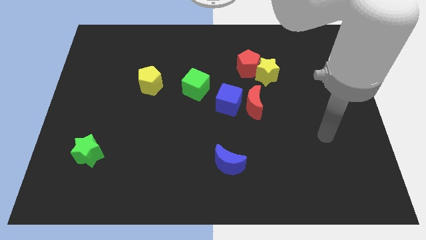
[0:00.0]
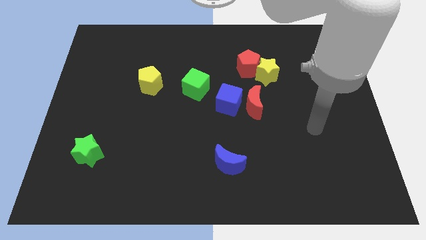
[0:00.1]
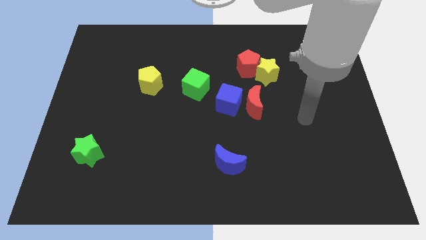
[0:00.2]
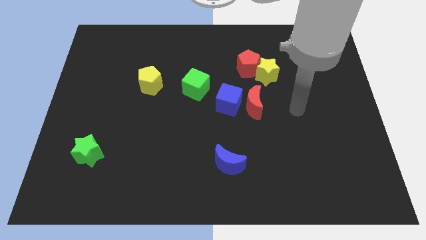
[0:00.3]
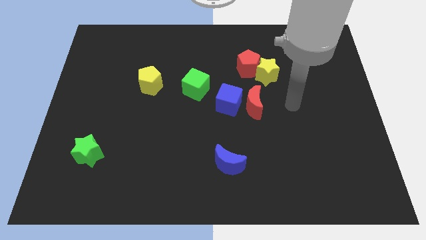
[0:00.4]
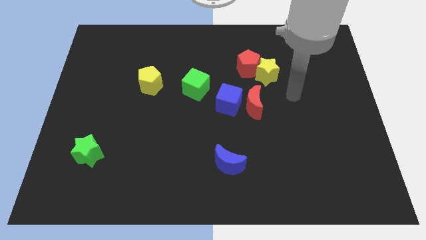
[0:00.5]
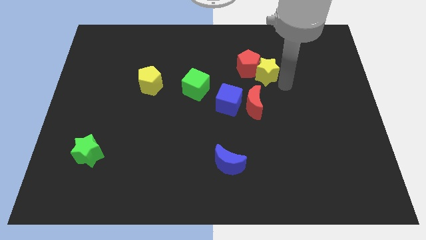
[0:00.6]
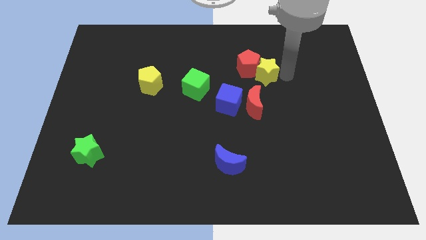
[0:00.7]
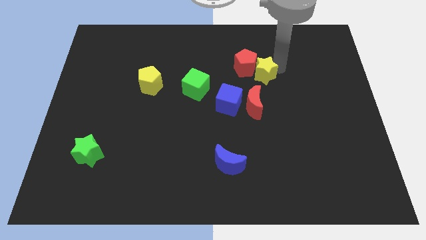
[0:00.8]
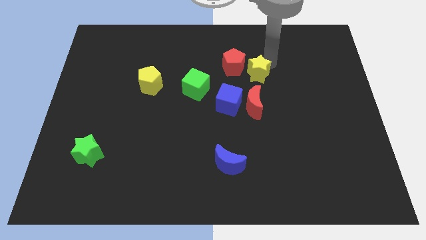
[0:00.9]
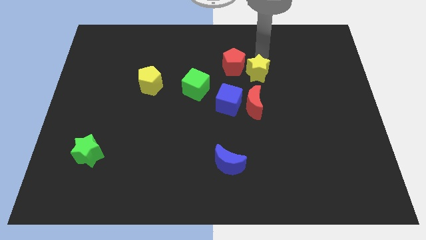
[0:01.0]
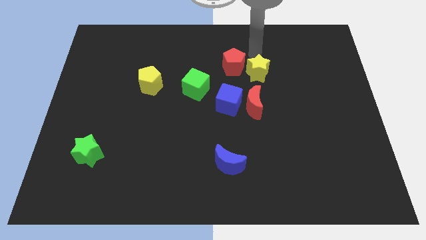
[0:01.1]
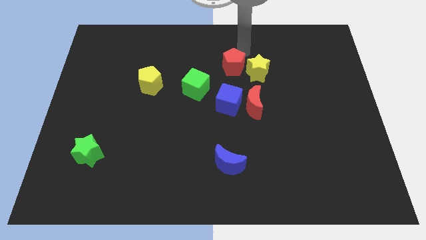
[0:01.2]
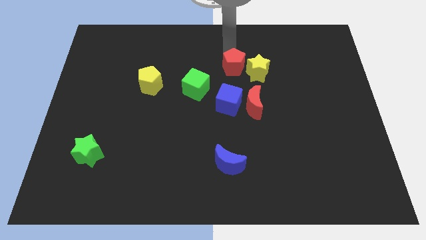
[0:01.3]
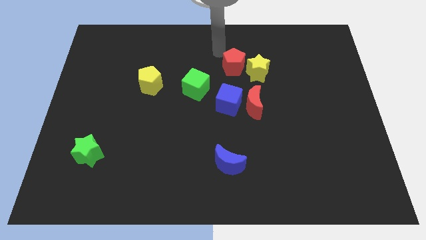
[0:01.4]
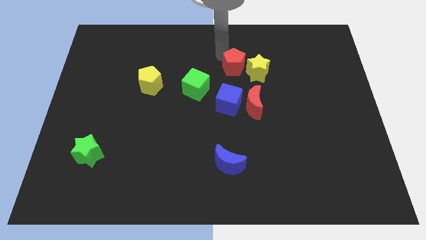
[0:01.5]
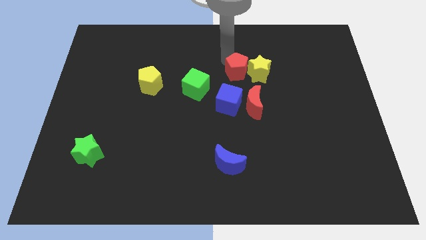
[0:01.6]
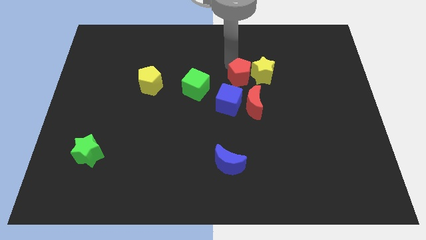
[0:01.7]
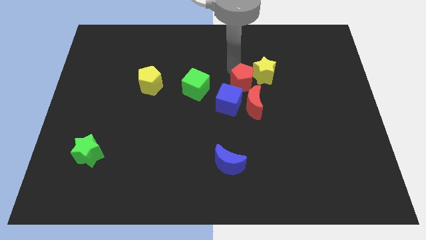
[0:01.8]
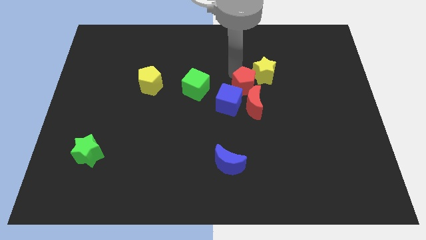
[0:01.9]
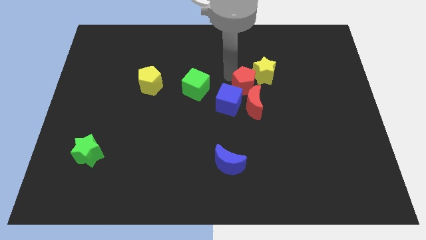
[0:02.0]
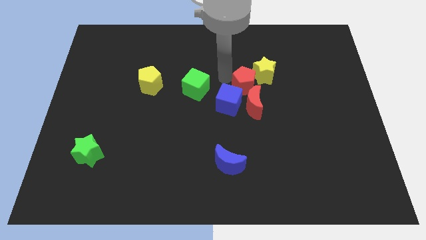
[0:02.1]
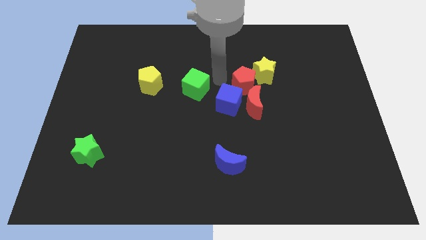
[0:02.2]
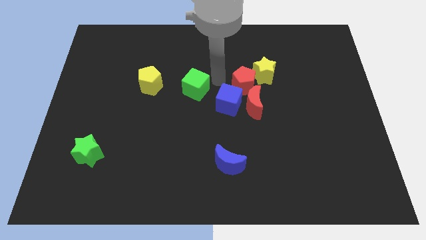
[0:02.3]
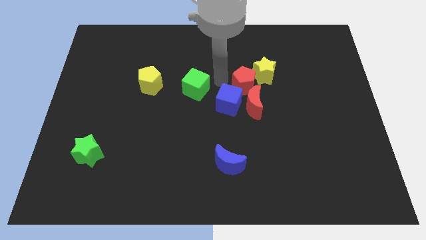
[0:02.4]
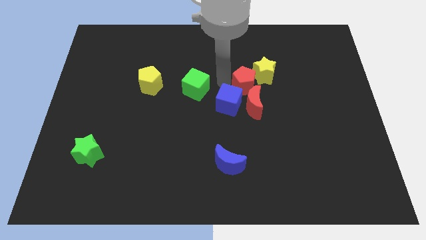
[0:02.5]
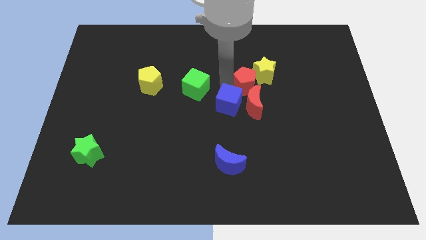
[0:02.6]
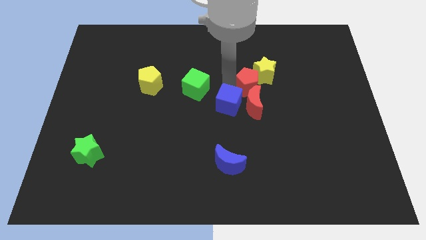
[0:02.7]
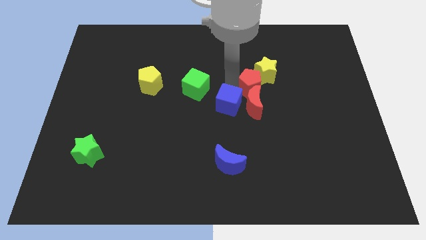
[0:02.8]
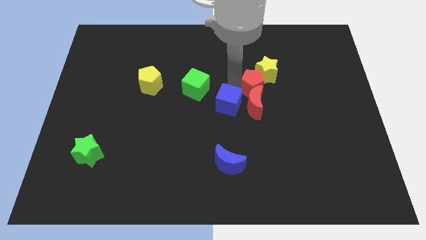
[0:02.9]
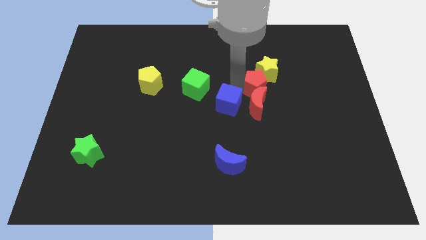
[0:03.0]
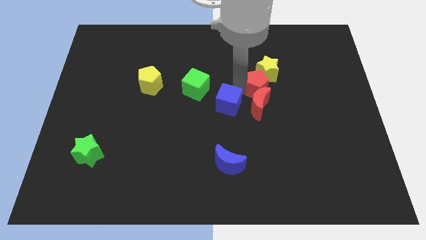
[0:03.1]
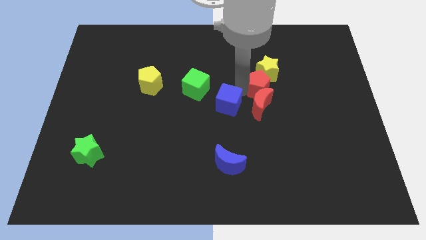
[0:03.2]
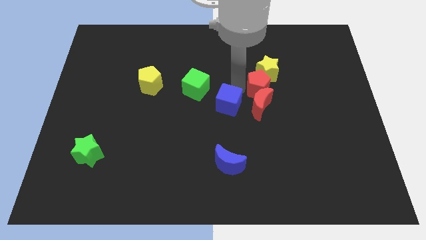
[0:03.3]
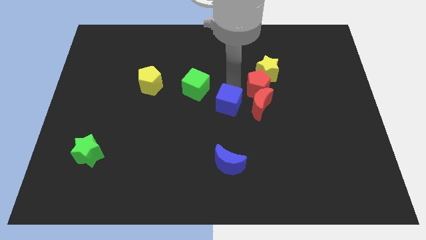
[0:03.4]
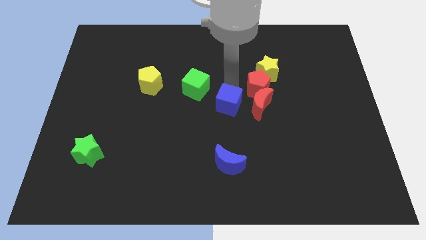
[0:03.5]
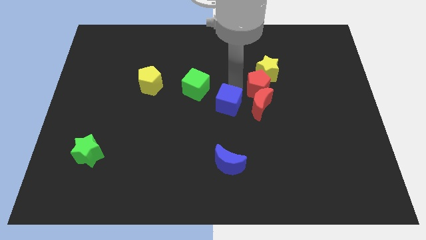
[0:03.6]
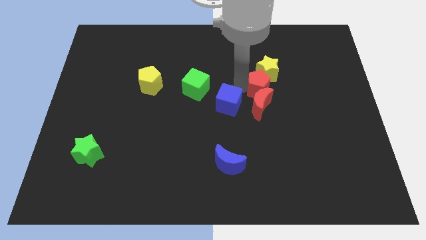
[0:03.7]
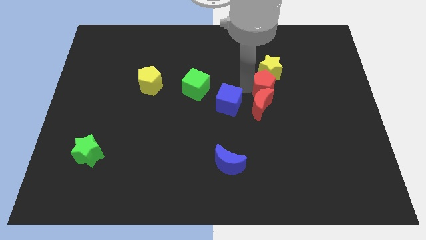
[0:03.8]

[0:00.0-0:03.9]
push the red pentagon a little bit down and to the right

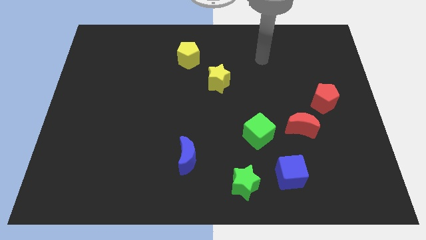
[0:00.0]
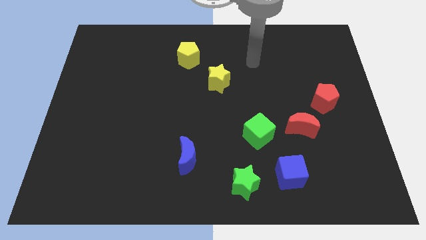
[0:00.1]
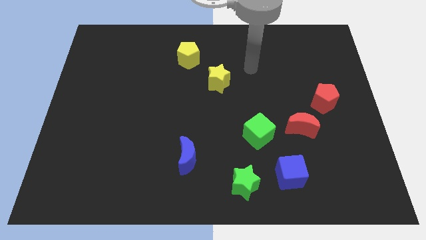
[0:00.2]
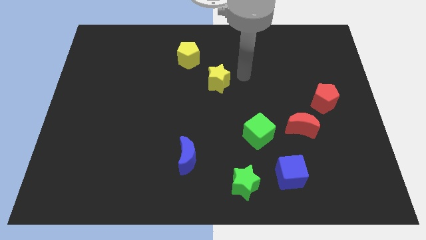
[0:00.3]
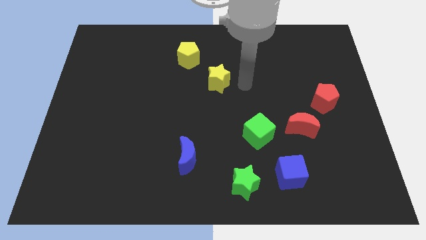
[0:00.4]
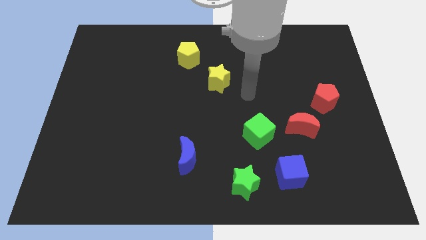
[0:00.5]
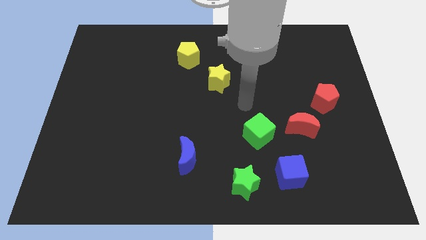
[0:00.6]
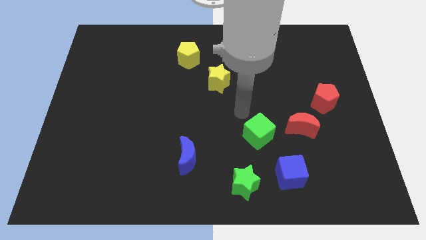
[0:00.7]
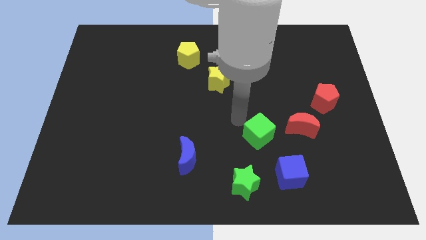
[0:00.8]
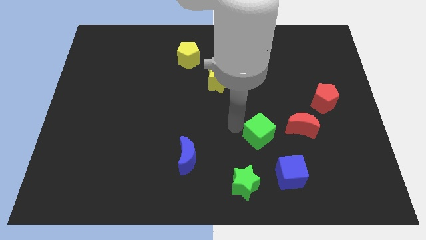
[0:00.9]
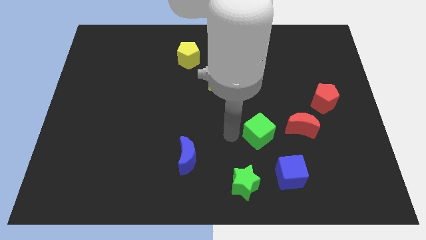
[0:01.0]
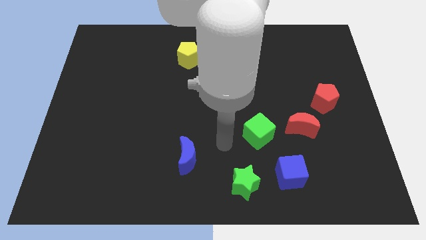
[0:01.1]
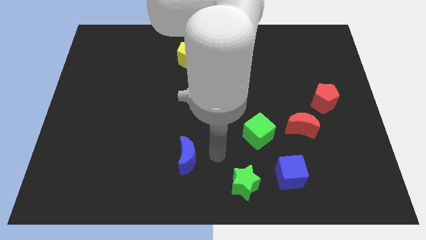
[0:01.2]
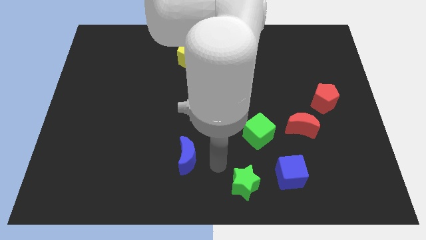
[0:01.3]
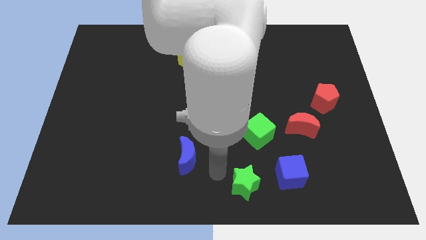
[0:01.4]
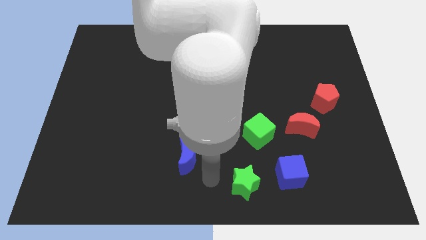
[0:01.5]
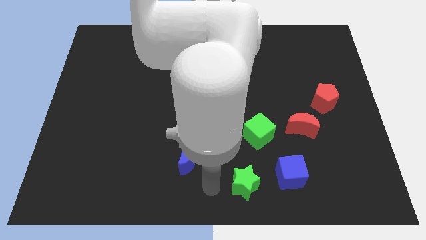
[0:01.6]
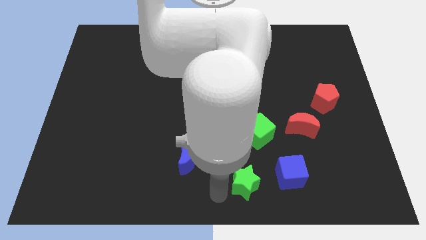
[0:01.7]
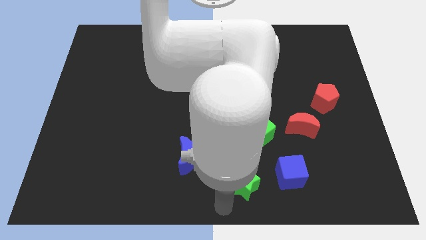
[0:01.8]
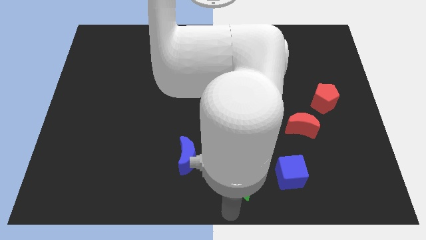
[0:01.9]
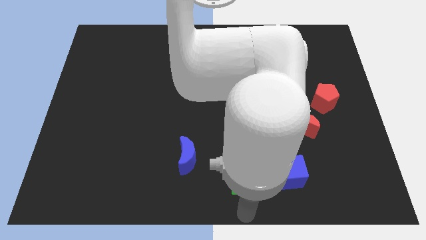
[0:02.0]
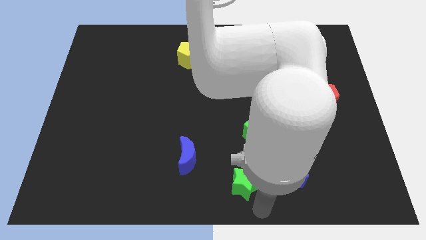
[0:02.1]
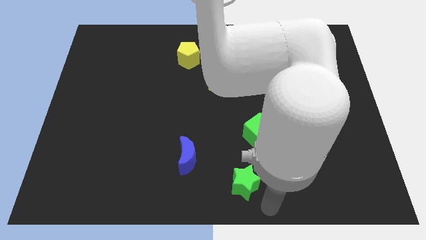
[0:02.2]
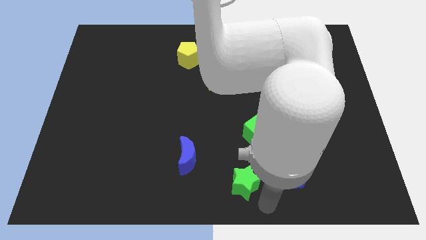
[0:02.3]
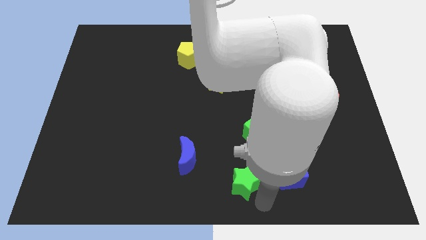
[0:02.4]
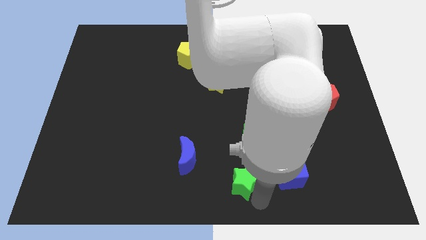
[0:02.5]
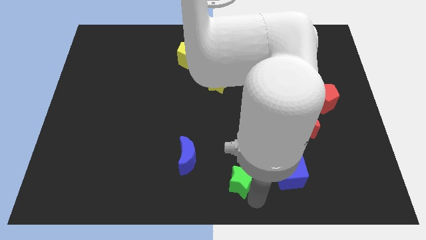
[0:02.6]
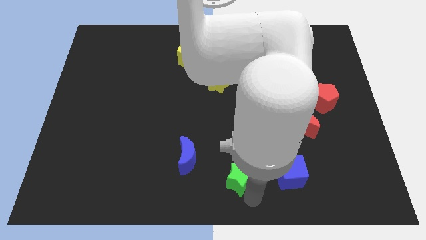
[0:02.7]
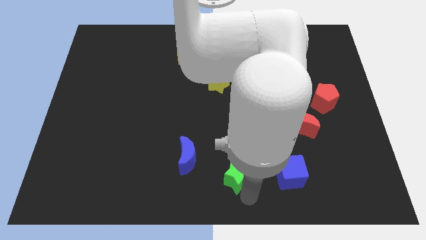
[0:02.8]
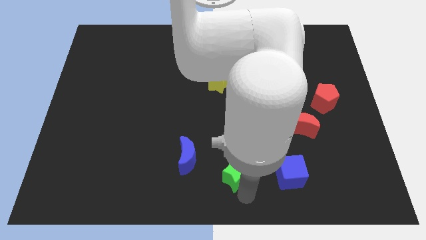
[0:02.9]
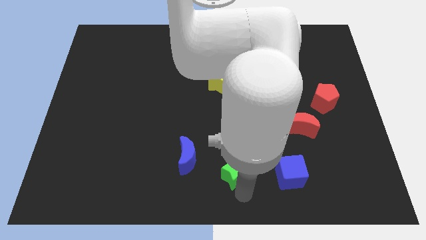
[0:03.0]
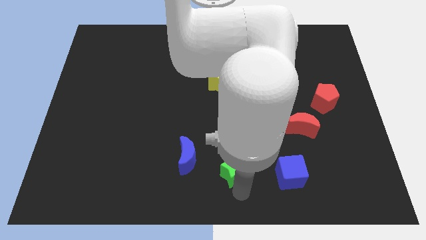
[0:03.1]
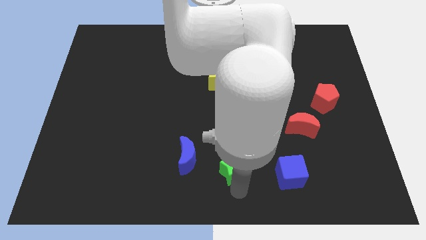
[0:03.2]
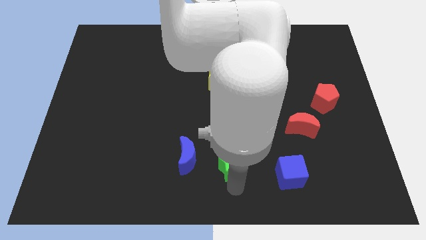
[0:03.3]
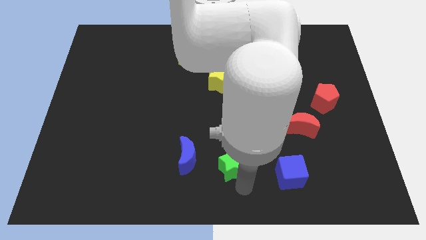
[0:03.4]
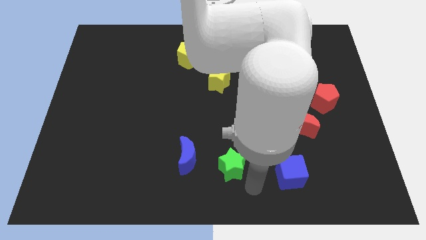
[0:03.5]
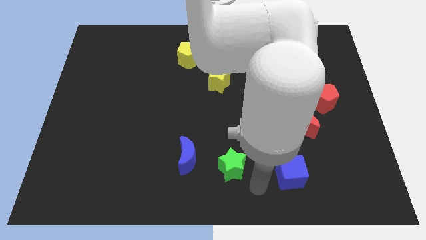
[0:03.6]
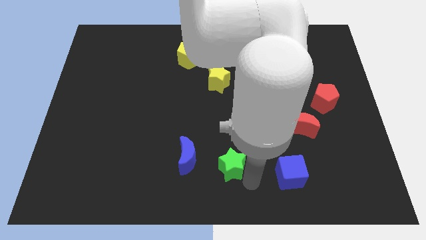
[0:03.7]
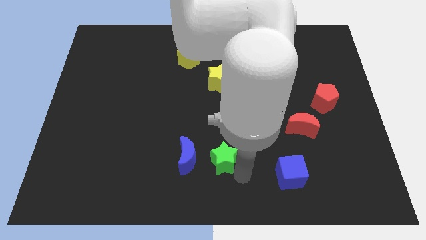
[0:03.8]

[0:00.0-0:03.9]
push the green star somewhat diagonally up and left

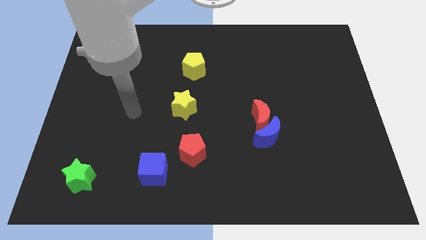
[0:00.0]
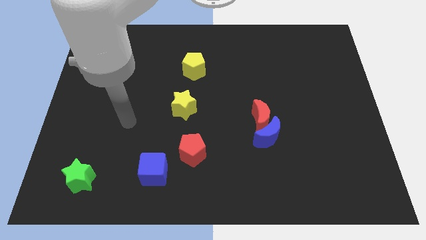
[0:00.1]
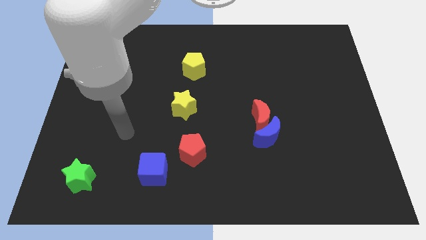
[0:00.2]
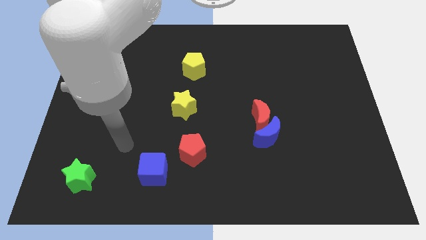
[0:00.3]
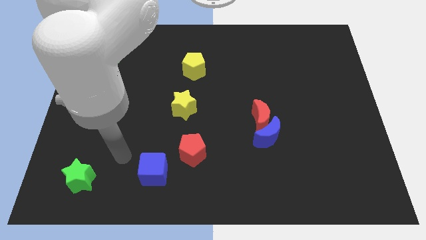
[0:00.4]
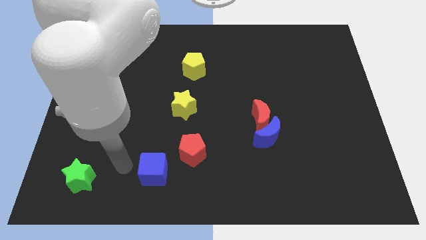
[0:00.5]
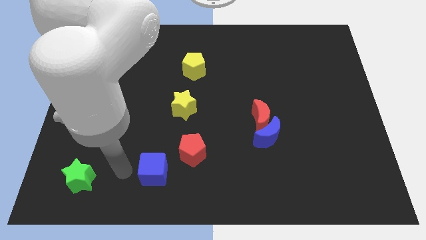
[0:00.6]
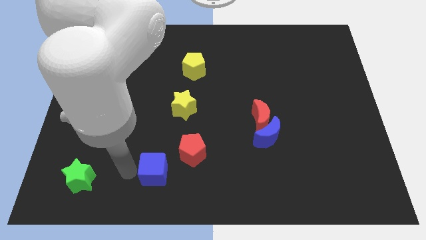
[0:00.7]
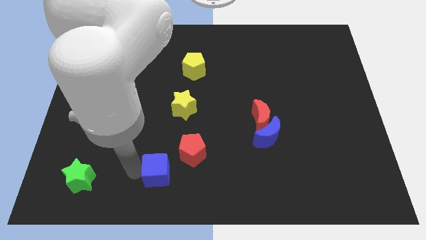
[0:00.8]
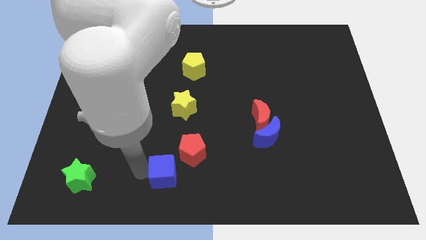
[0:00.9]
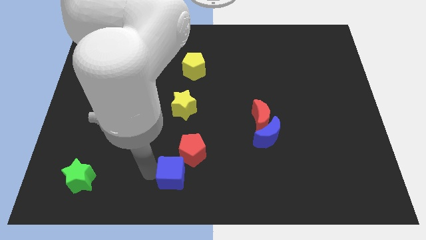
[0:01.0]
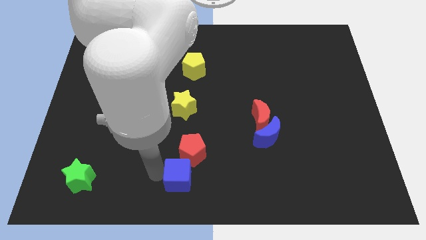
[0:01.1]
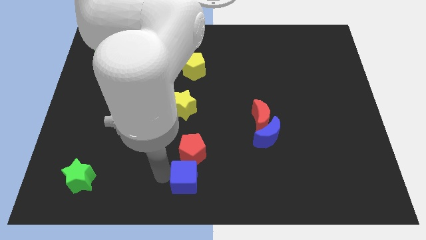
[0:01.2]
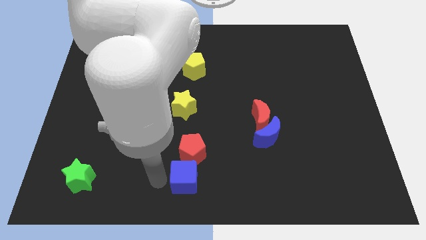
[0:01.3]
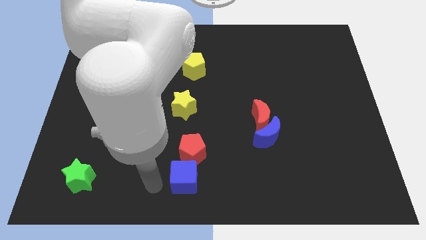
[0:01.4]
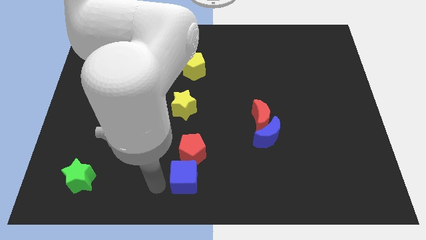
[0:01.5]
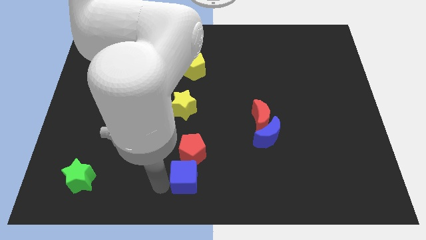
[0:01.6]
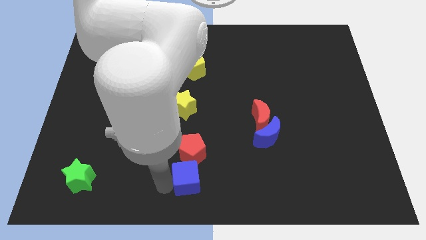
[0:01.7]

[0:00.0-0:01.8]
push the blue cube a little bit right
